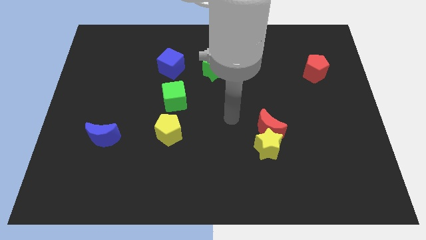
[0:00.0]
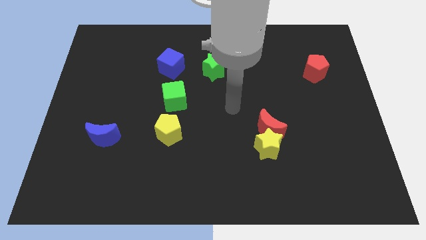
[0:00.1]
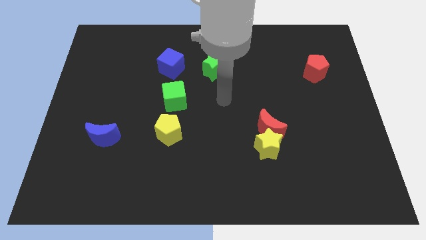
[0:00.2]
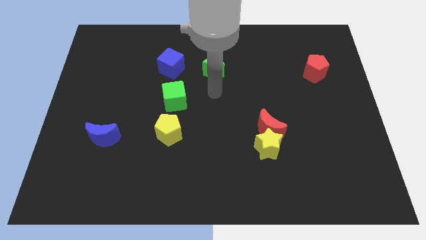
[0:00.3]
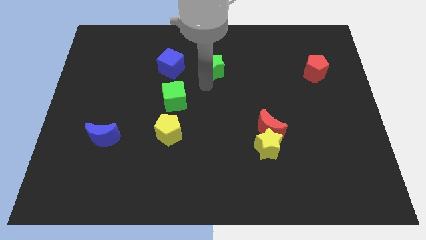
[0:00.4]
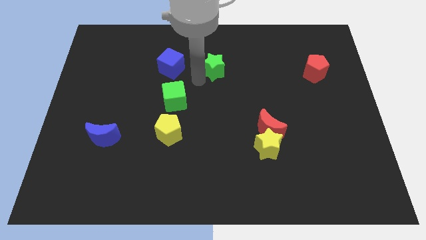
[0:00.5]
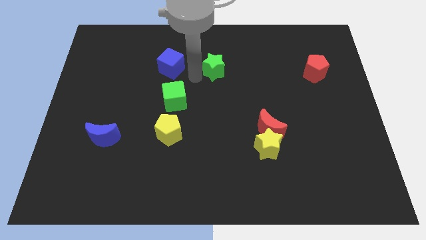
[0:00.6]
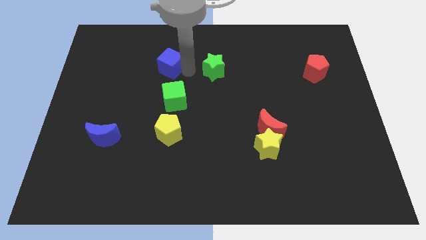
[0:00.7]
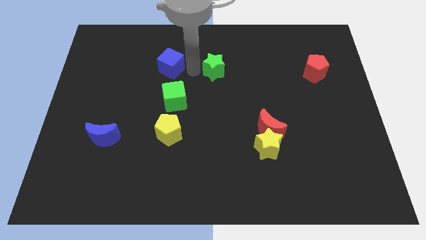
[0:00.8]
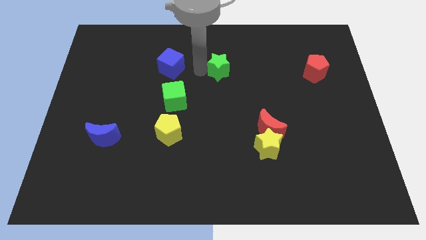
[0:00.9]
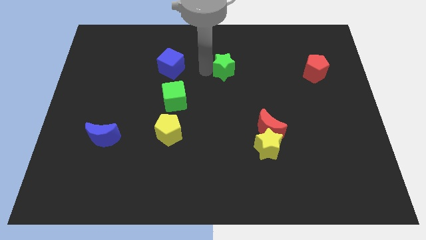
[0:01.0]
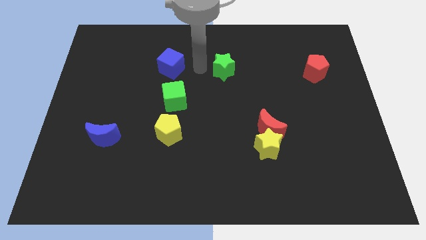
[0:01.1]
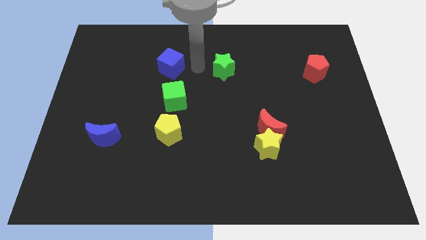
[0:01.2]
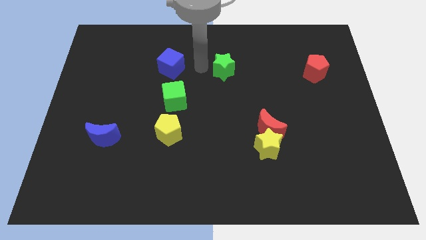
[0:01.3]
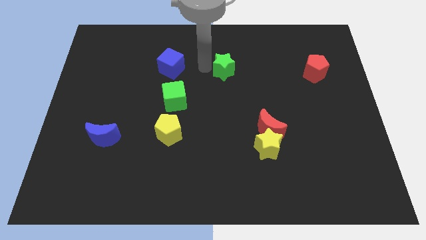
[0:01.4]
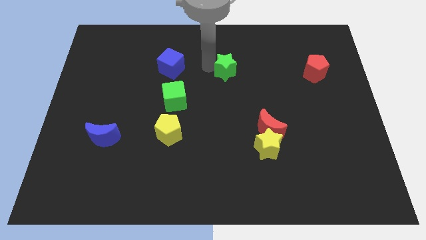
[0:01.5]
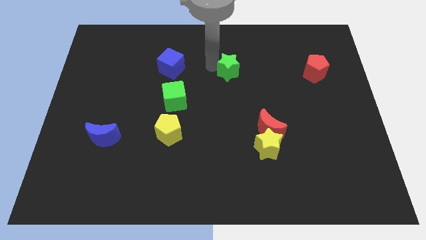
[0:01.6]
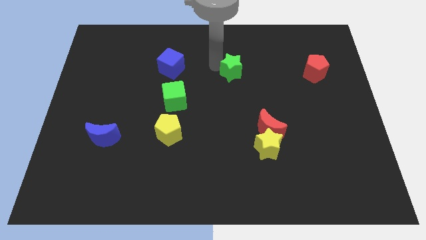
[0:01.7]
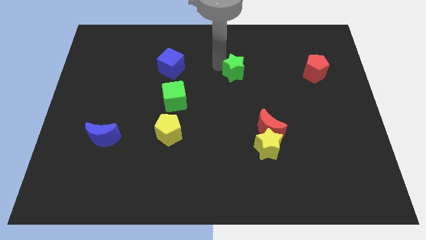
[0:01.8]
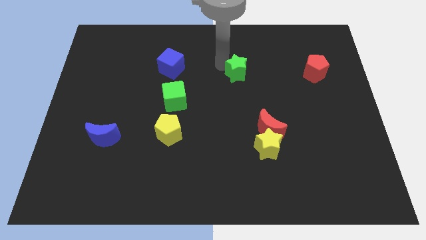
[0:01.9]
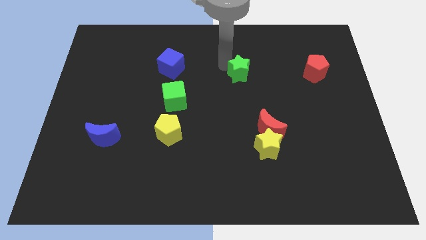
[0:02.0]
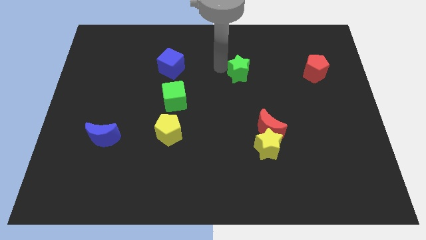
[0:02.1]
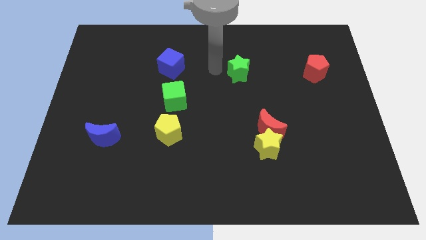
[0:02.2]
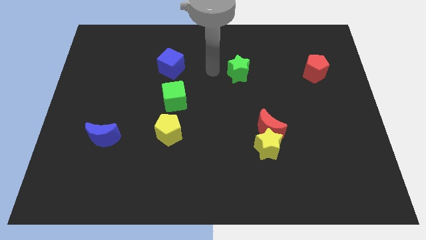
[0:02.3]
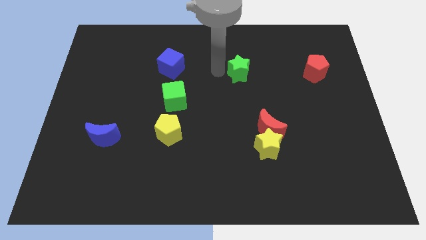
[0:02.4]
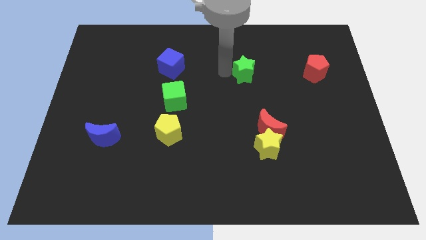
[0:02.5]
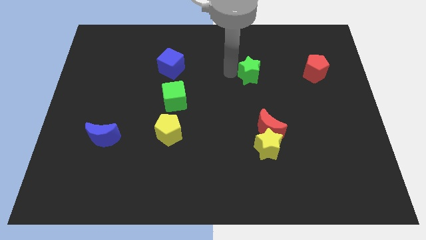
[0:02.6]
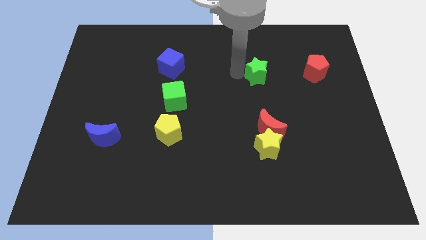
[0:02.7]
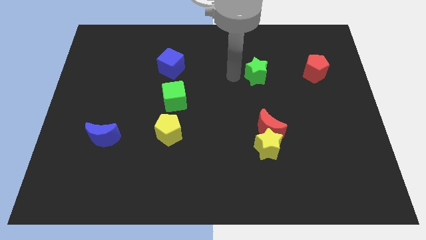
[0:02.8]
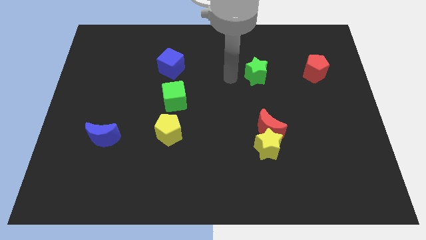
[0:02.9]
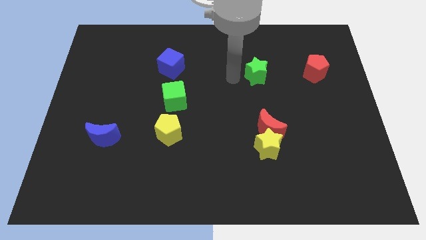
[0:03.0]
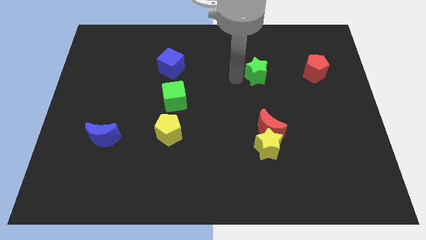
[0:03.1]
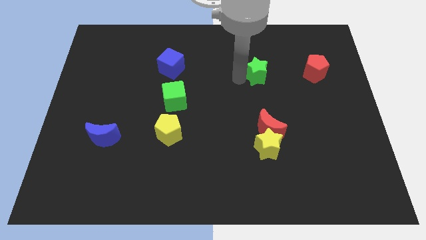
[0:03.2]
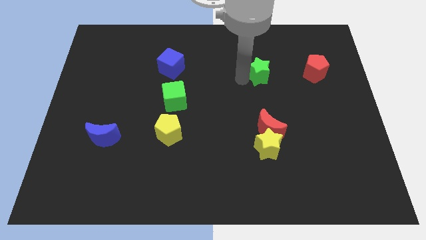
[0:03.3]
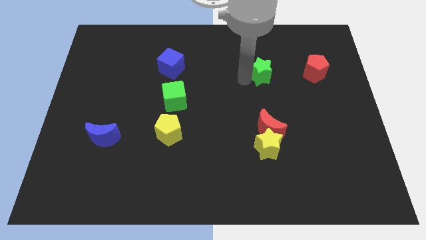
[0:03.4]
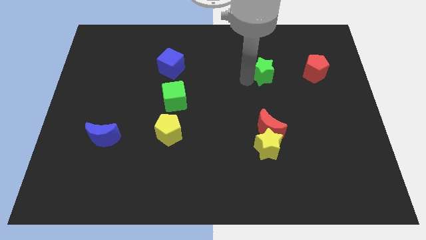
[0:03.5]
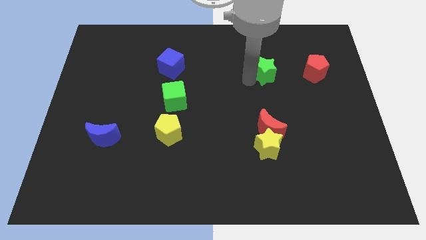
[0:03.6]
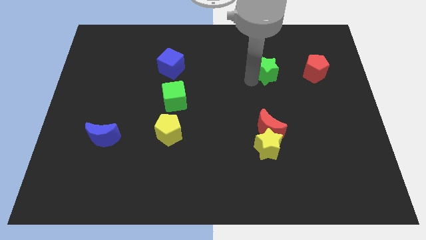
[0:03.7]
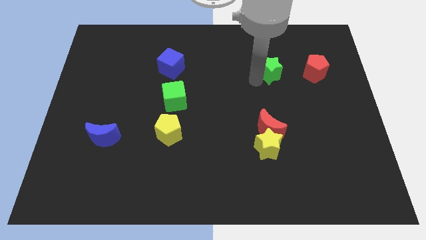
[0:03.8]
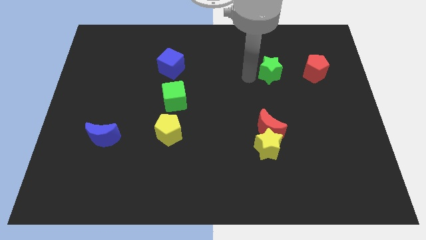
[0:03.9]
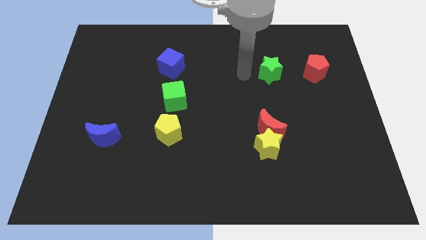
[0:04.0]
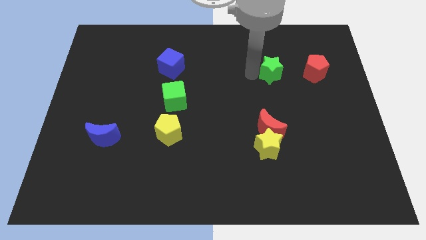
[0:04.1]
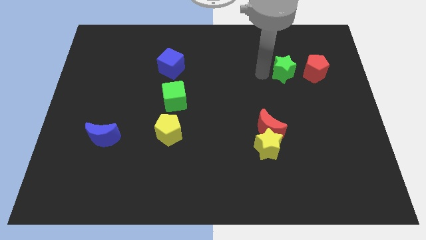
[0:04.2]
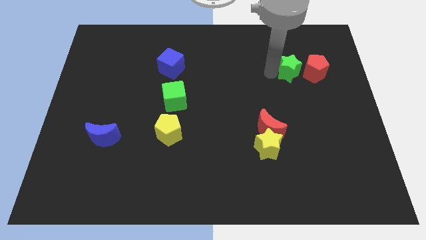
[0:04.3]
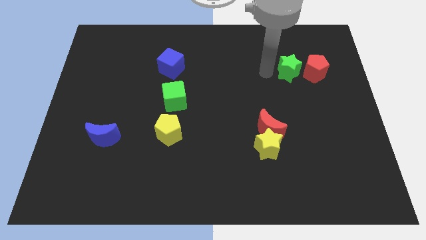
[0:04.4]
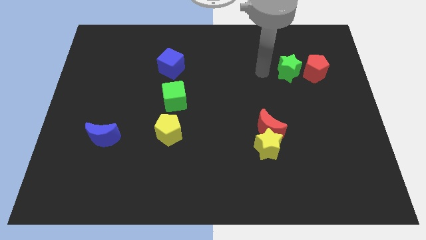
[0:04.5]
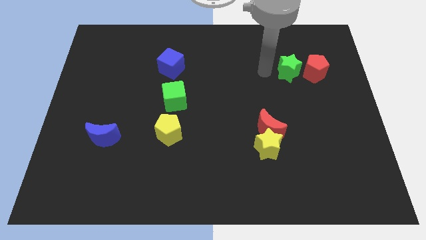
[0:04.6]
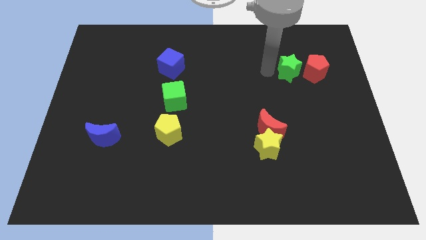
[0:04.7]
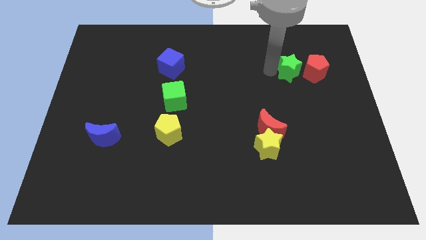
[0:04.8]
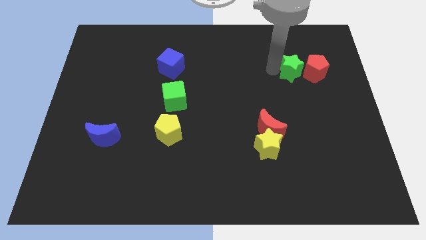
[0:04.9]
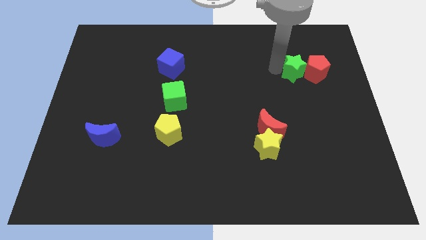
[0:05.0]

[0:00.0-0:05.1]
put the green star to the red pentagon

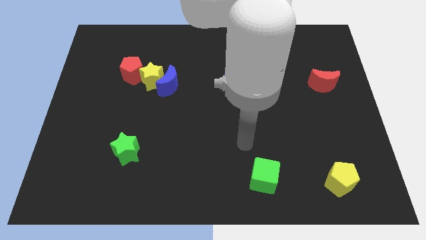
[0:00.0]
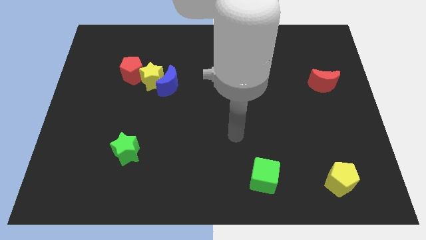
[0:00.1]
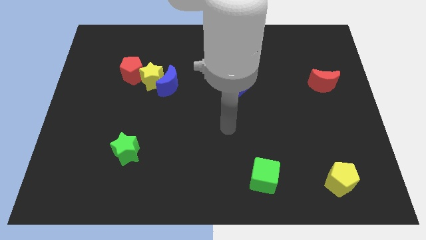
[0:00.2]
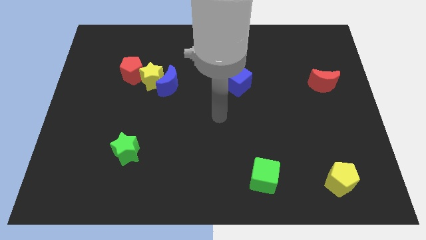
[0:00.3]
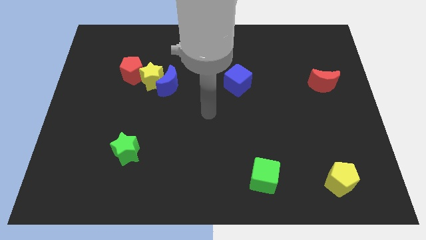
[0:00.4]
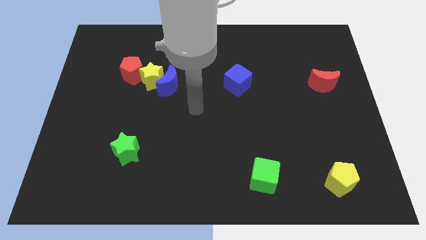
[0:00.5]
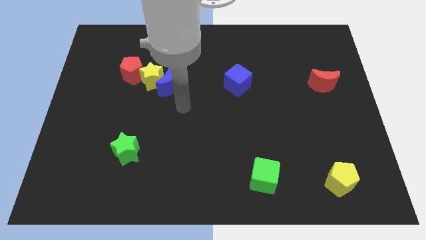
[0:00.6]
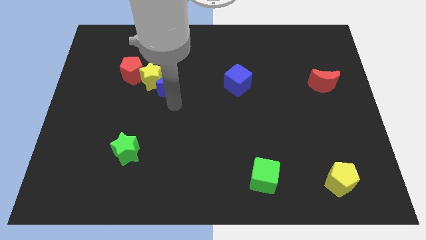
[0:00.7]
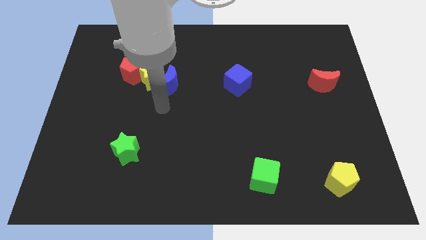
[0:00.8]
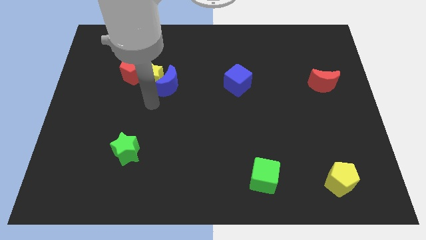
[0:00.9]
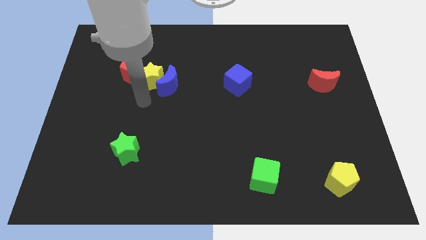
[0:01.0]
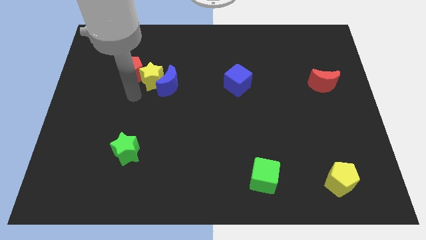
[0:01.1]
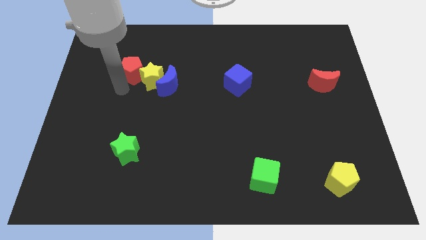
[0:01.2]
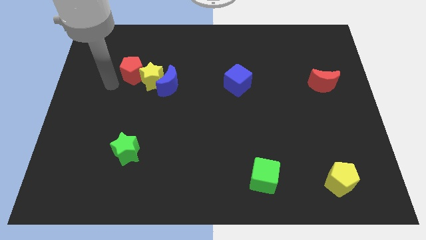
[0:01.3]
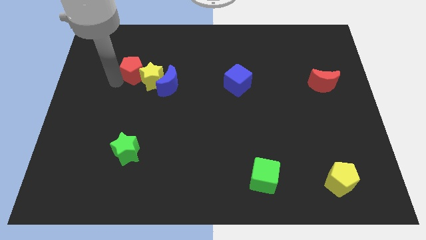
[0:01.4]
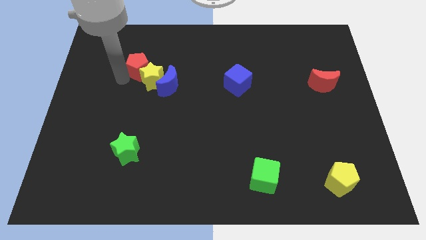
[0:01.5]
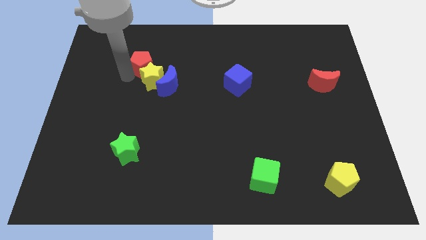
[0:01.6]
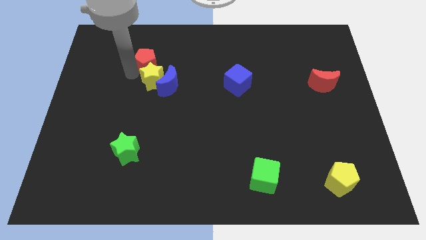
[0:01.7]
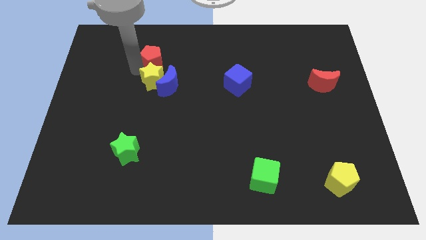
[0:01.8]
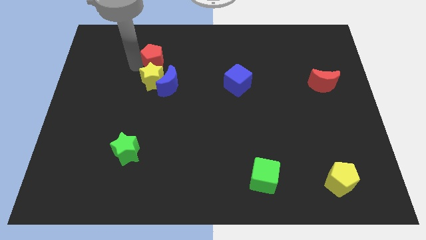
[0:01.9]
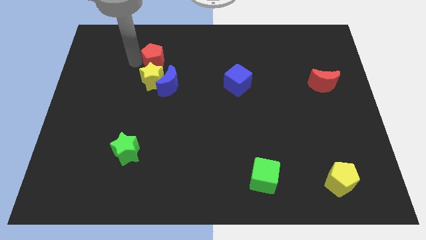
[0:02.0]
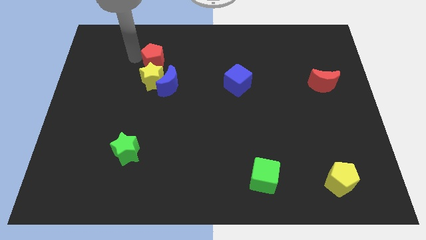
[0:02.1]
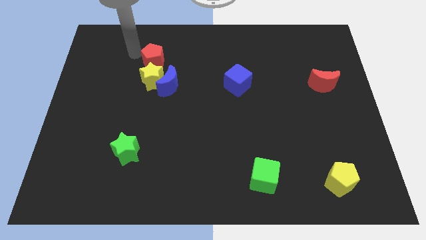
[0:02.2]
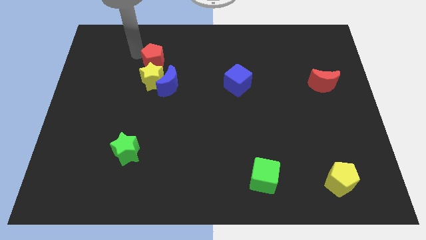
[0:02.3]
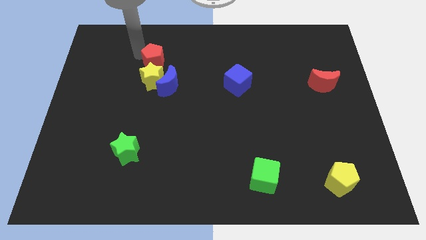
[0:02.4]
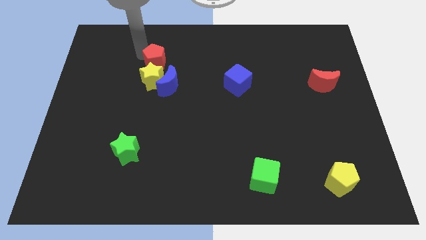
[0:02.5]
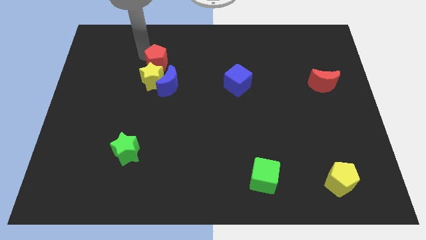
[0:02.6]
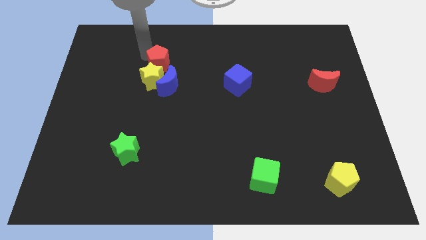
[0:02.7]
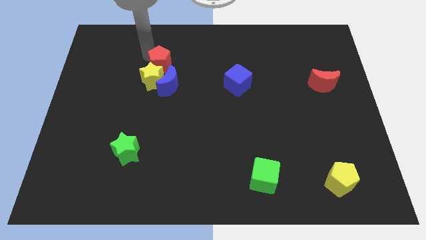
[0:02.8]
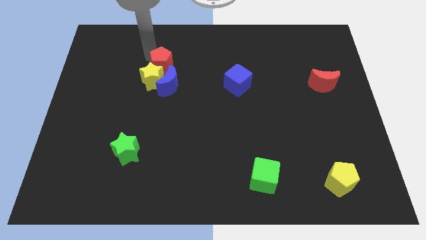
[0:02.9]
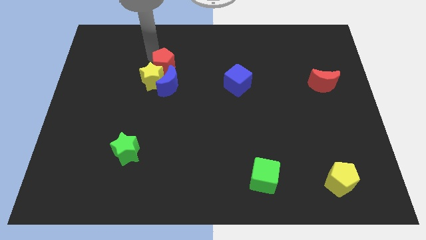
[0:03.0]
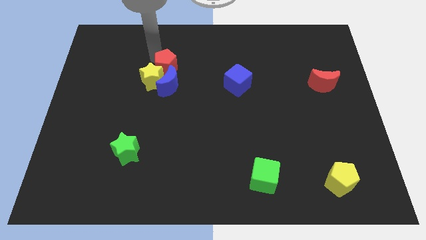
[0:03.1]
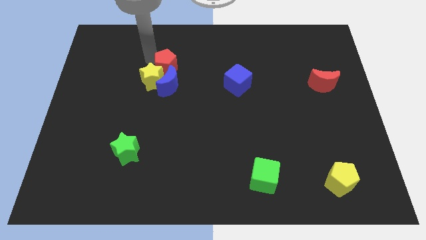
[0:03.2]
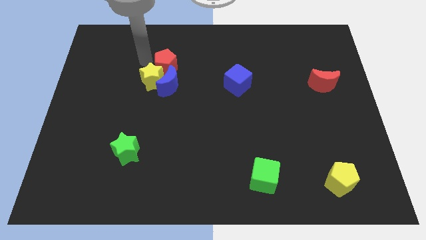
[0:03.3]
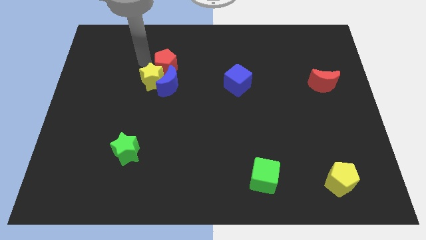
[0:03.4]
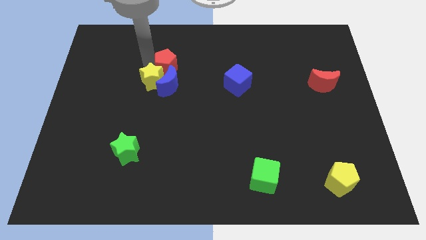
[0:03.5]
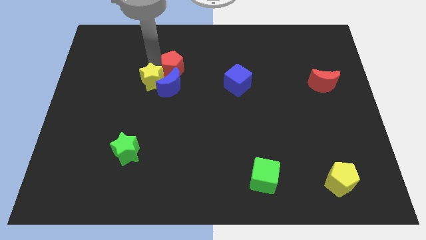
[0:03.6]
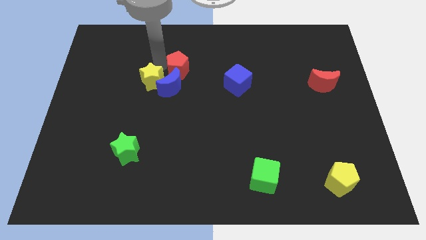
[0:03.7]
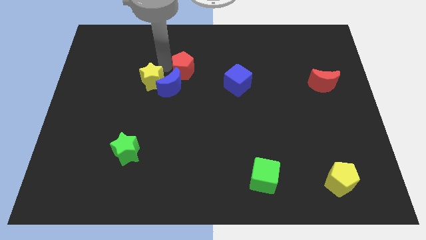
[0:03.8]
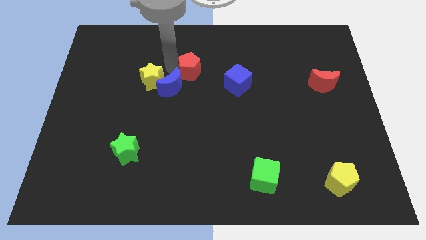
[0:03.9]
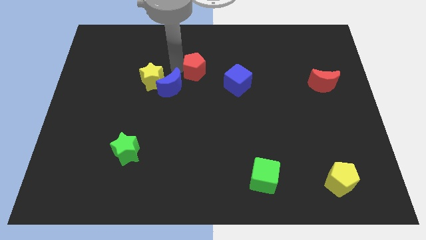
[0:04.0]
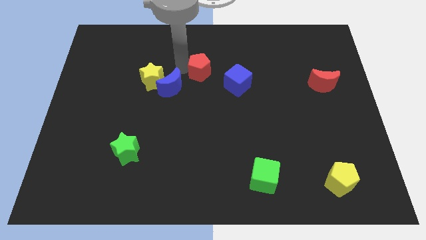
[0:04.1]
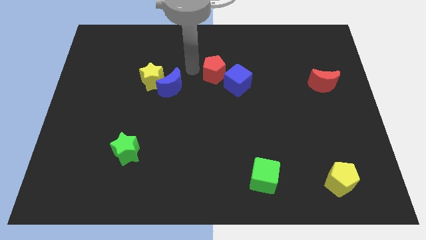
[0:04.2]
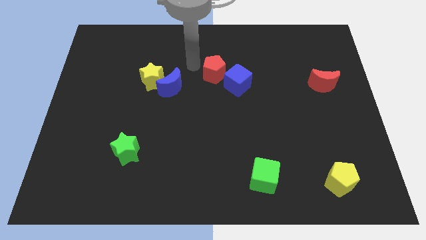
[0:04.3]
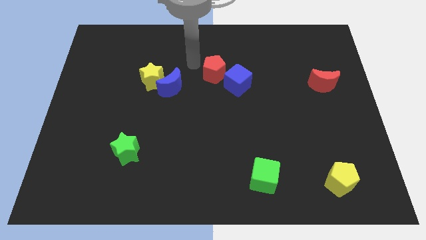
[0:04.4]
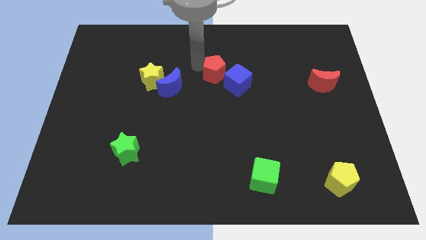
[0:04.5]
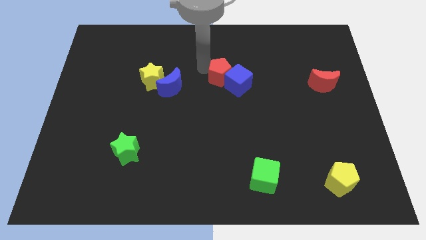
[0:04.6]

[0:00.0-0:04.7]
put the red pentagon towards the blue cube
